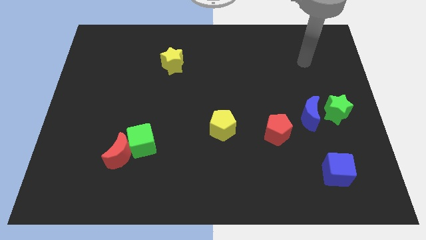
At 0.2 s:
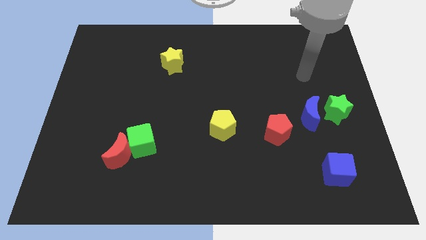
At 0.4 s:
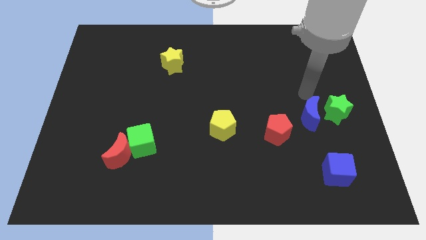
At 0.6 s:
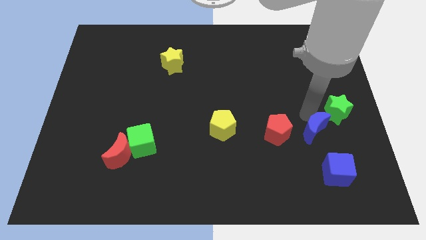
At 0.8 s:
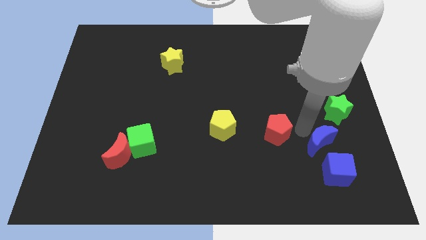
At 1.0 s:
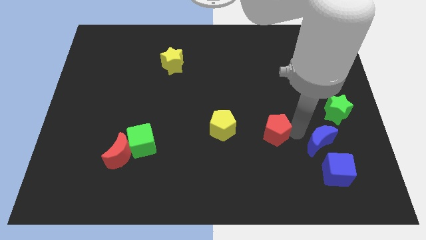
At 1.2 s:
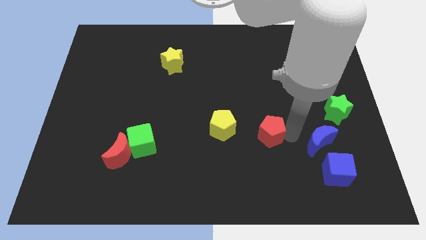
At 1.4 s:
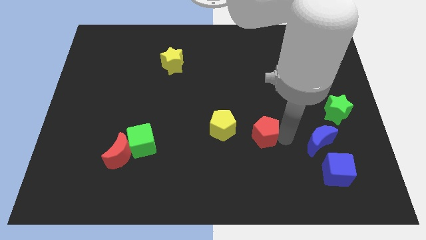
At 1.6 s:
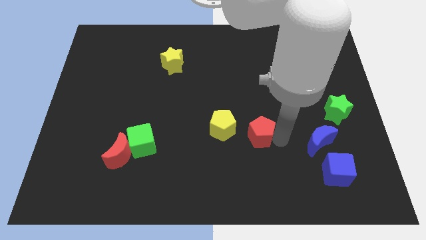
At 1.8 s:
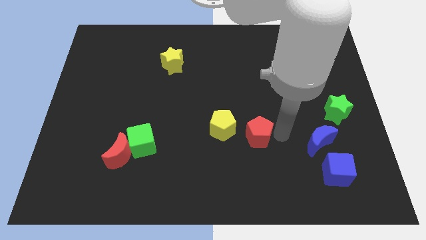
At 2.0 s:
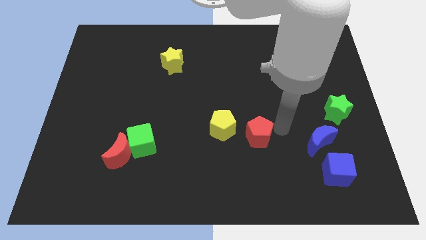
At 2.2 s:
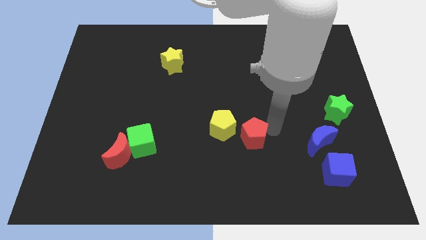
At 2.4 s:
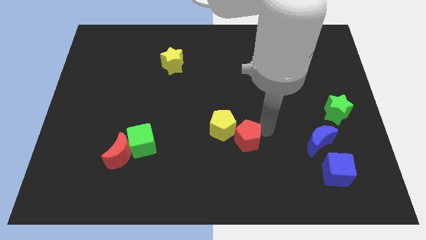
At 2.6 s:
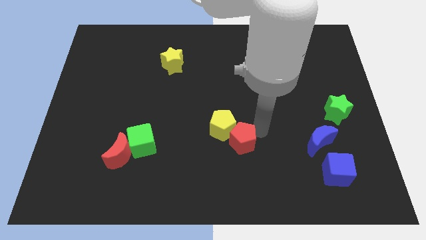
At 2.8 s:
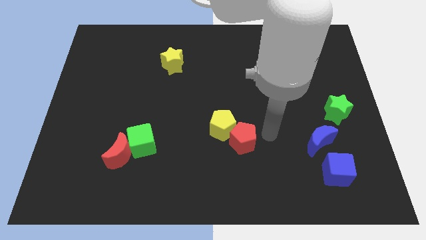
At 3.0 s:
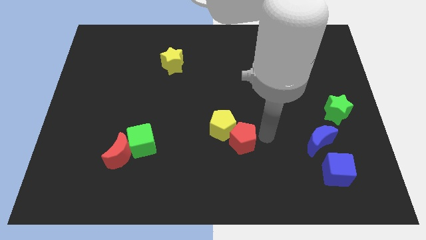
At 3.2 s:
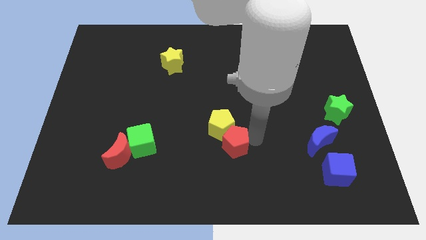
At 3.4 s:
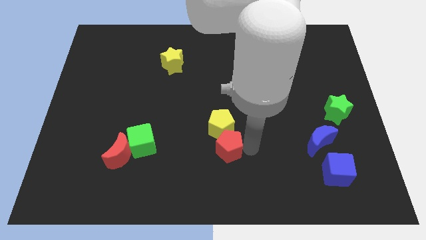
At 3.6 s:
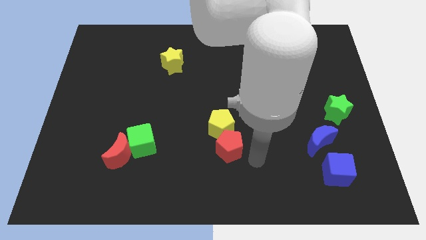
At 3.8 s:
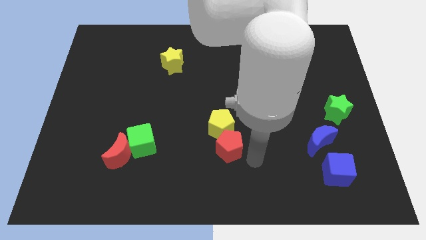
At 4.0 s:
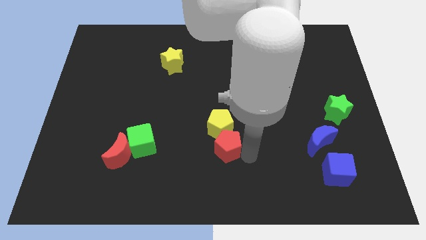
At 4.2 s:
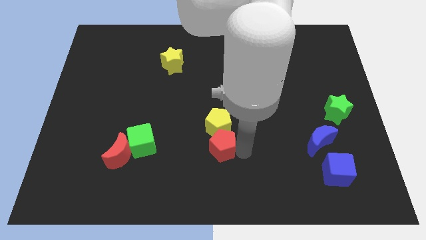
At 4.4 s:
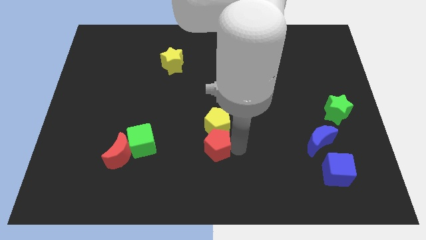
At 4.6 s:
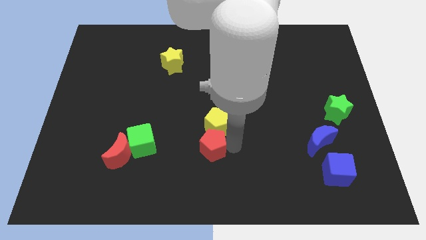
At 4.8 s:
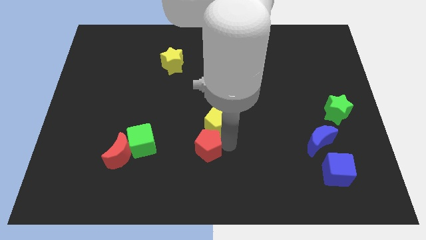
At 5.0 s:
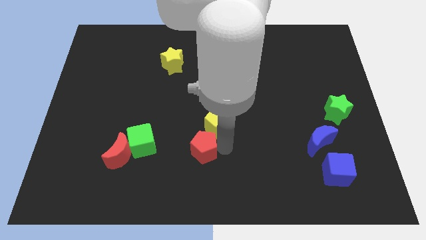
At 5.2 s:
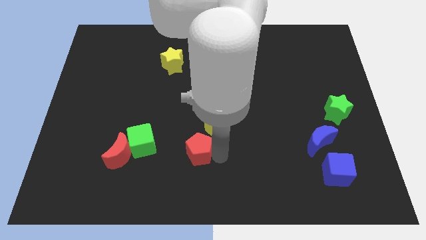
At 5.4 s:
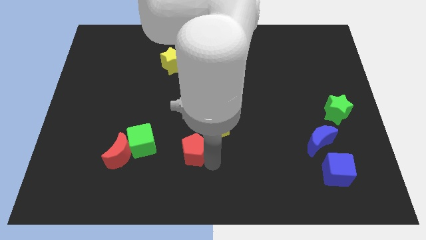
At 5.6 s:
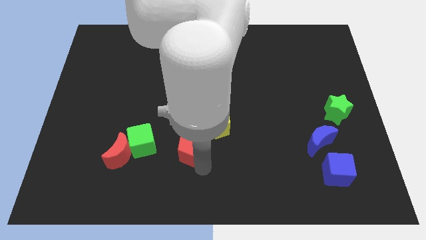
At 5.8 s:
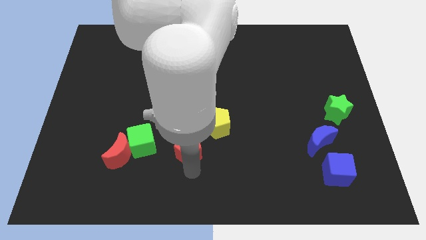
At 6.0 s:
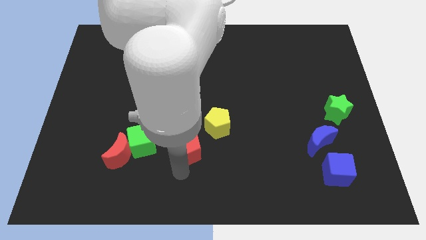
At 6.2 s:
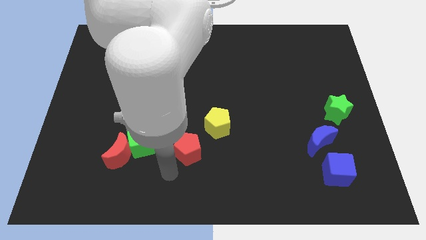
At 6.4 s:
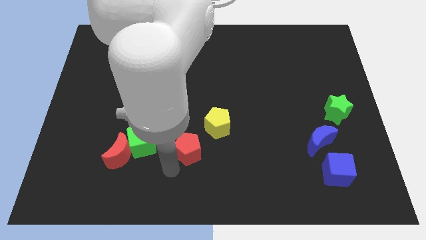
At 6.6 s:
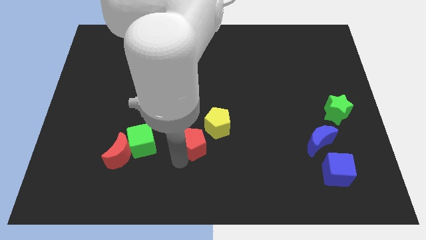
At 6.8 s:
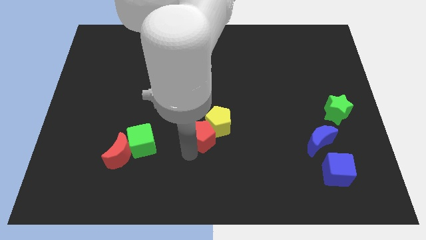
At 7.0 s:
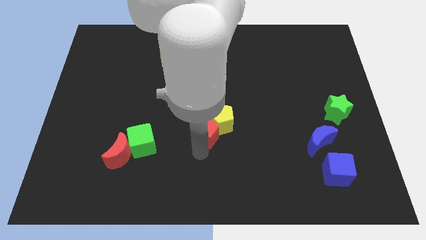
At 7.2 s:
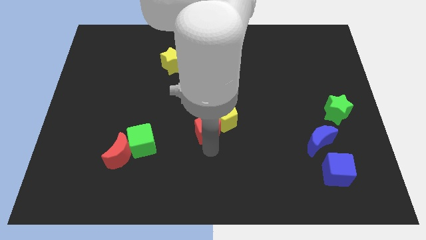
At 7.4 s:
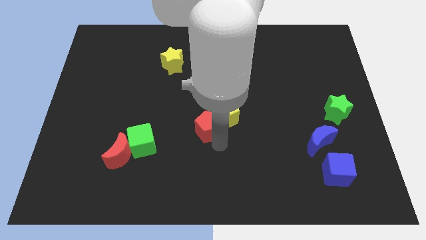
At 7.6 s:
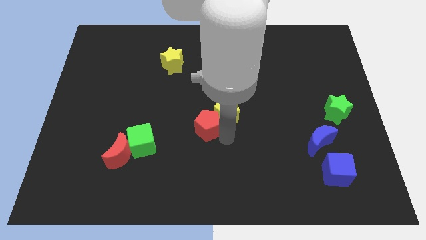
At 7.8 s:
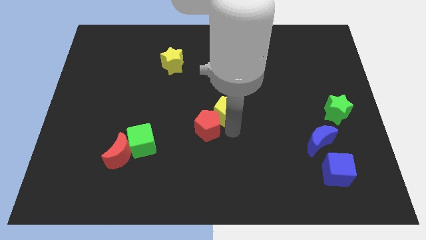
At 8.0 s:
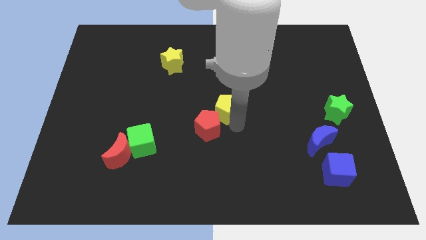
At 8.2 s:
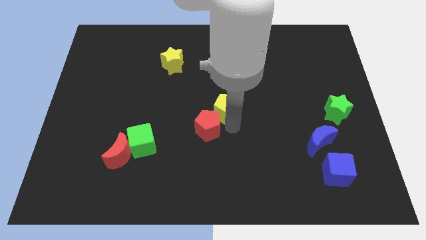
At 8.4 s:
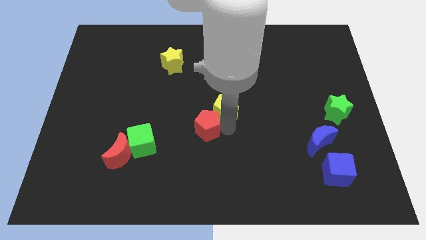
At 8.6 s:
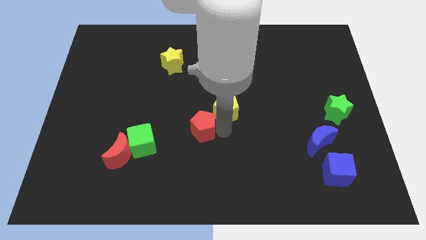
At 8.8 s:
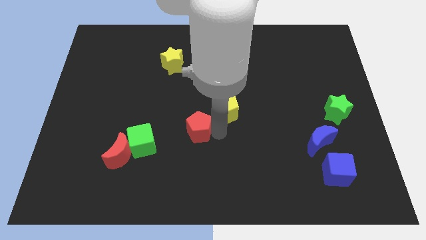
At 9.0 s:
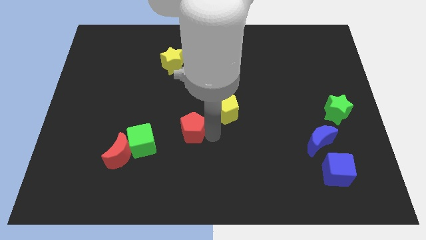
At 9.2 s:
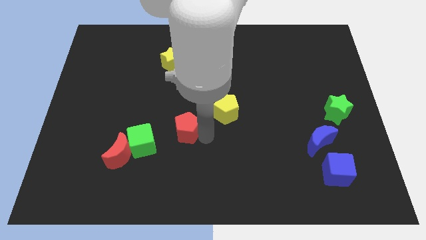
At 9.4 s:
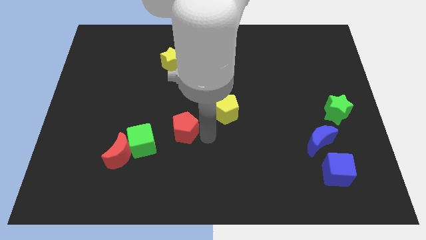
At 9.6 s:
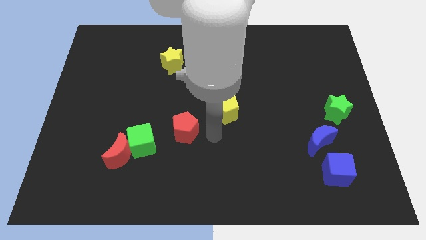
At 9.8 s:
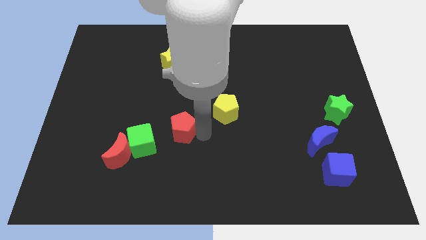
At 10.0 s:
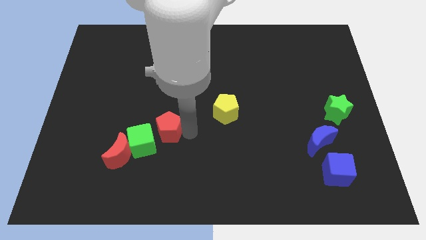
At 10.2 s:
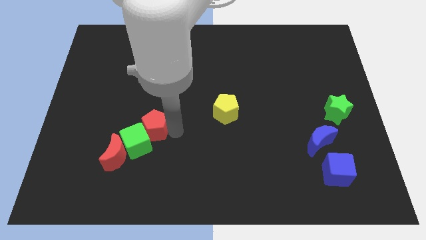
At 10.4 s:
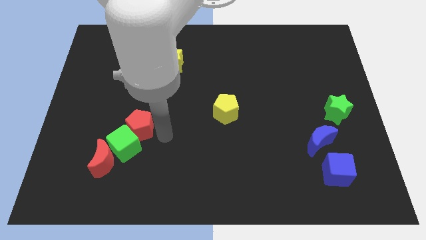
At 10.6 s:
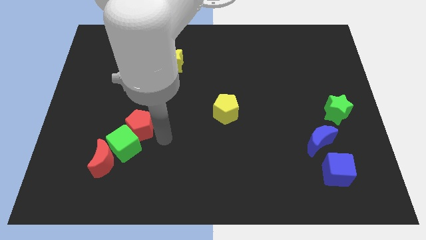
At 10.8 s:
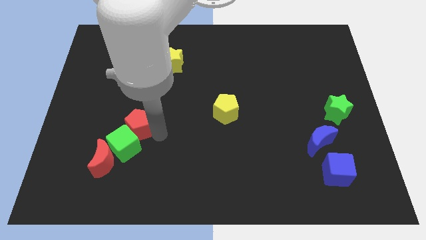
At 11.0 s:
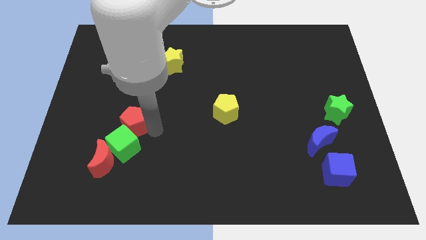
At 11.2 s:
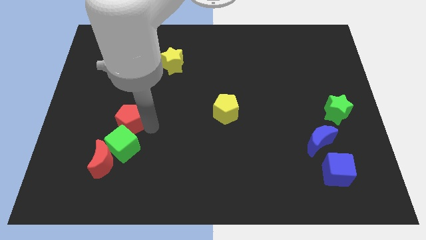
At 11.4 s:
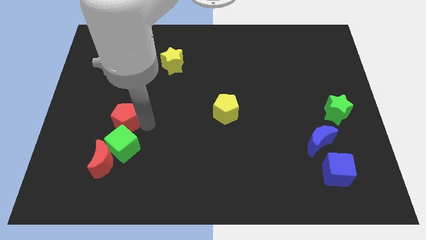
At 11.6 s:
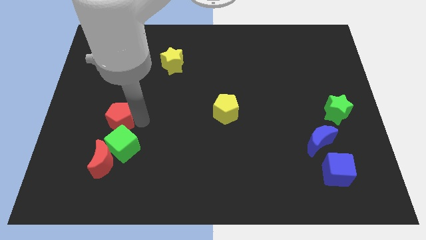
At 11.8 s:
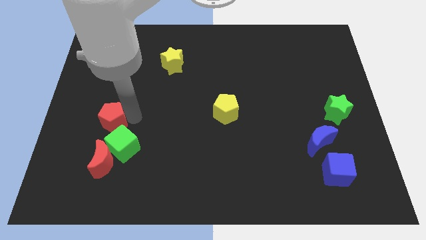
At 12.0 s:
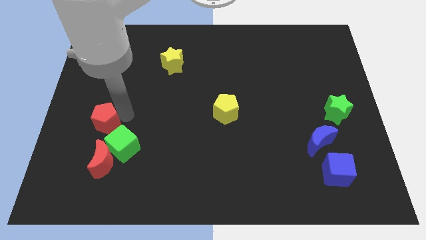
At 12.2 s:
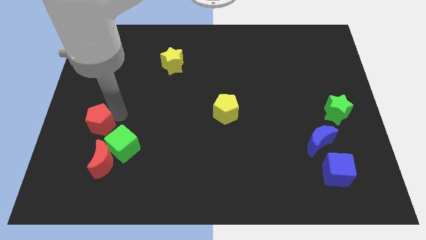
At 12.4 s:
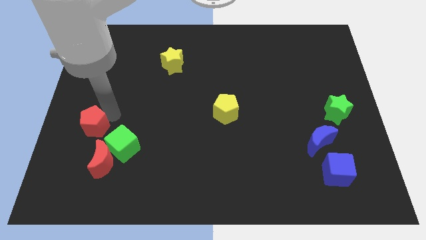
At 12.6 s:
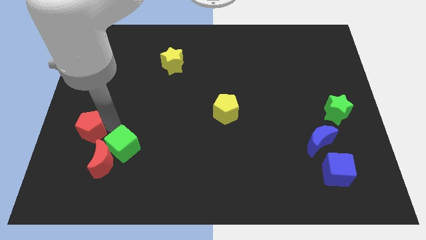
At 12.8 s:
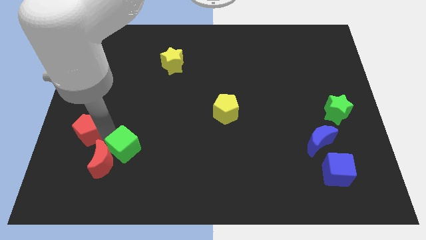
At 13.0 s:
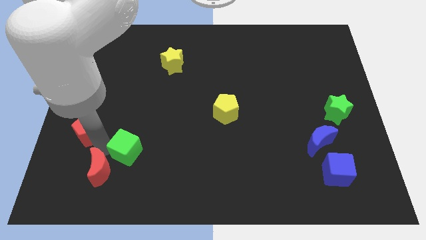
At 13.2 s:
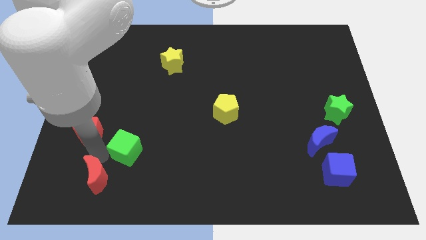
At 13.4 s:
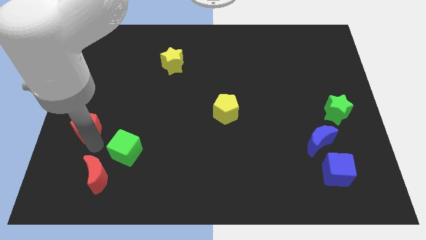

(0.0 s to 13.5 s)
slide the red pentagon to the left side of the board
